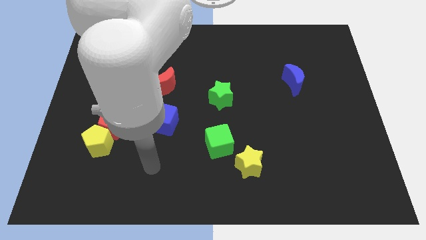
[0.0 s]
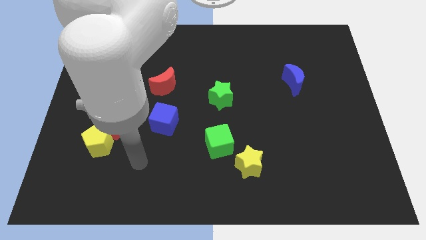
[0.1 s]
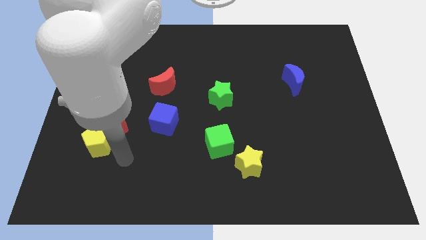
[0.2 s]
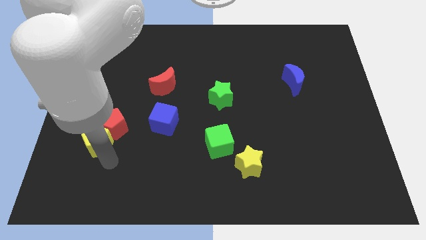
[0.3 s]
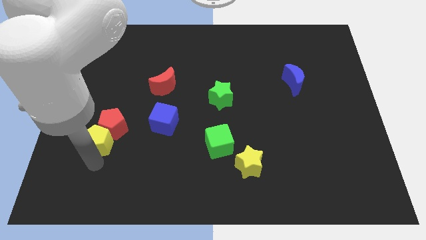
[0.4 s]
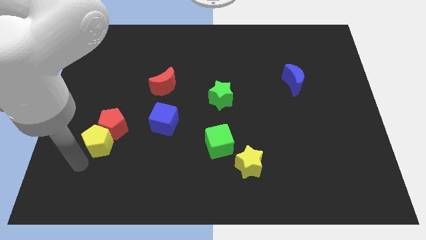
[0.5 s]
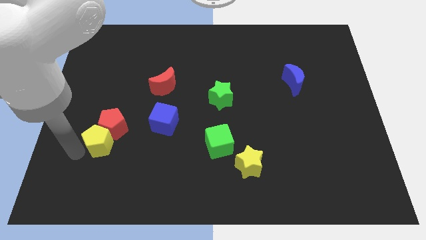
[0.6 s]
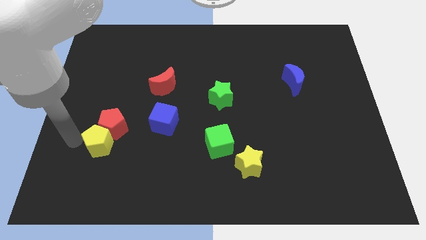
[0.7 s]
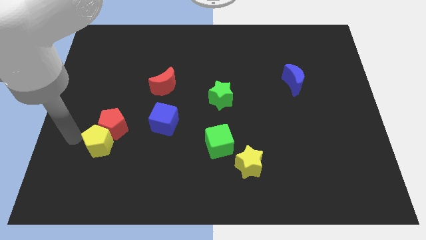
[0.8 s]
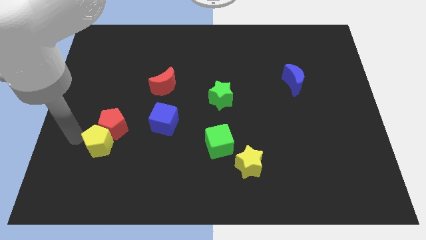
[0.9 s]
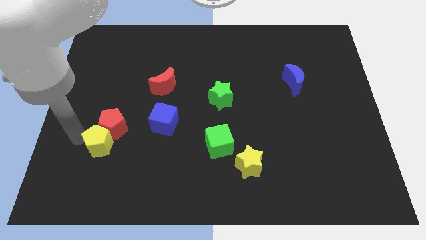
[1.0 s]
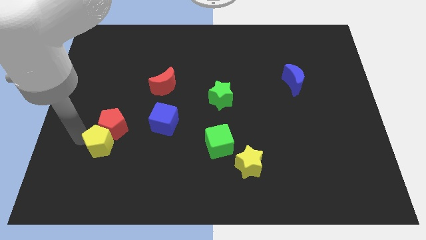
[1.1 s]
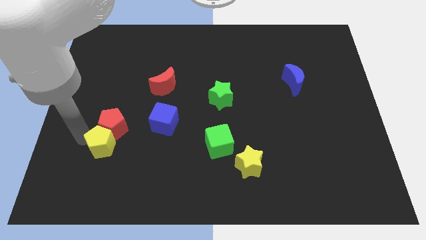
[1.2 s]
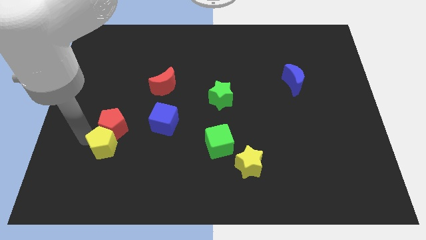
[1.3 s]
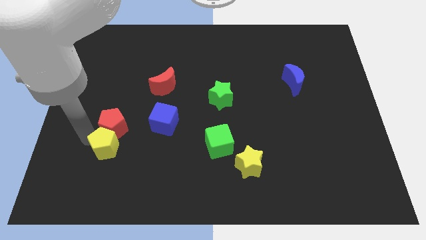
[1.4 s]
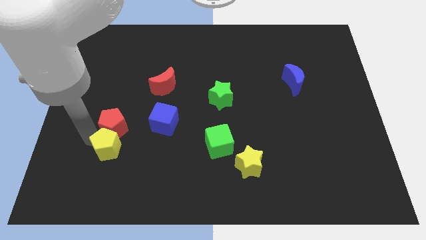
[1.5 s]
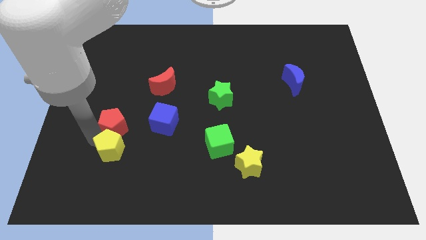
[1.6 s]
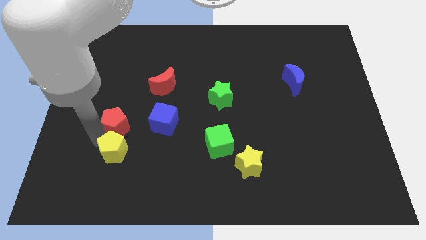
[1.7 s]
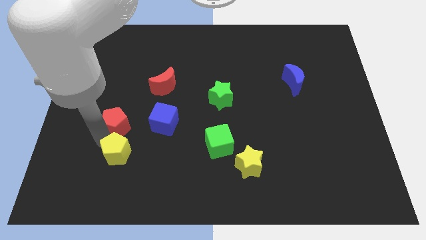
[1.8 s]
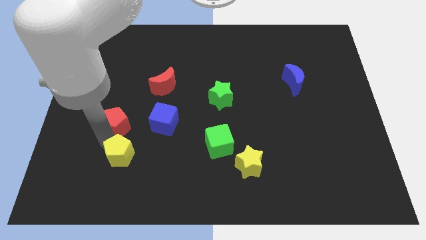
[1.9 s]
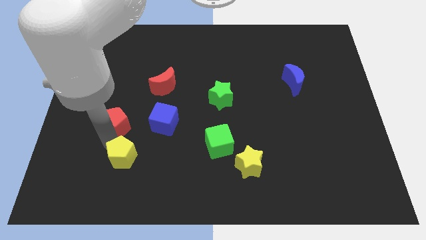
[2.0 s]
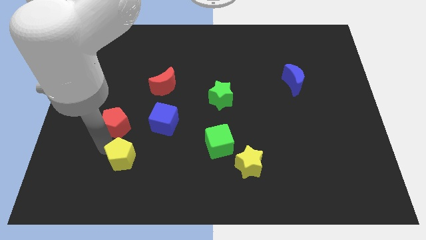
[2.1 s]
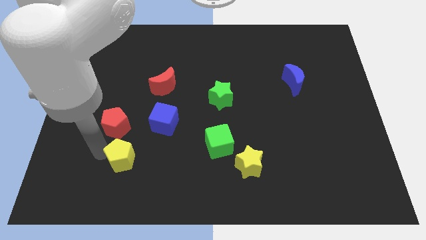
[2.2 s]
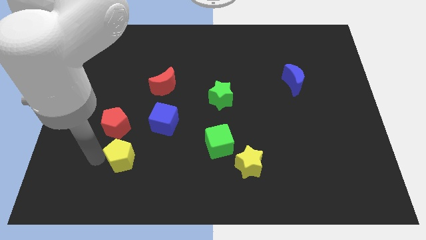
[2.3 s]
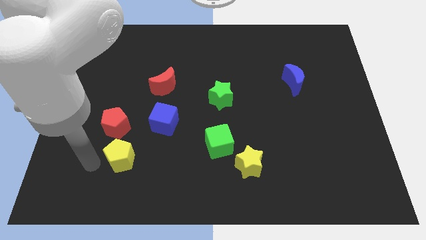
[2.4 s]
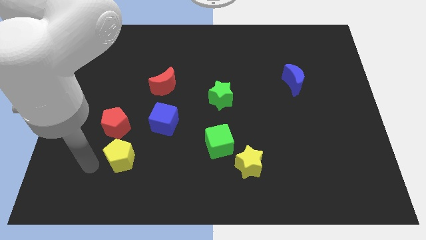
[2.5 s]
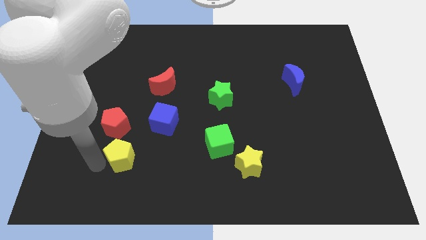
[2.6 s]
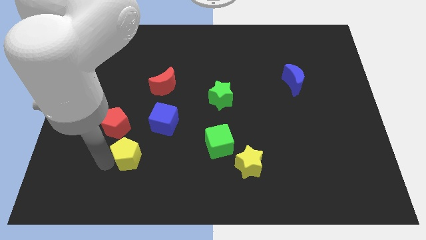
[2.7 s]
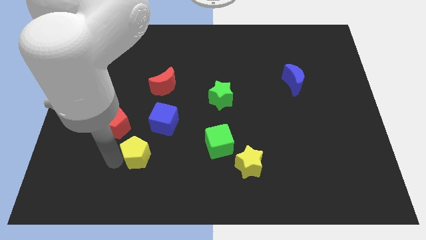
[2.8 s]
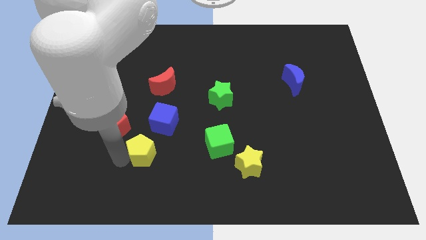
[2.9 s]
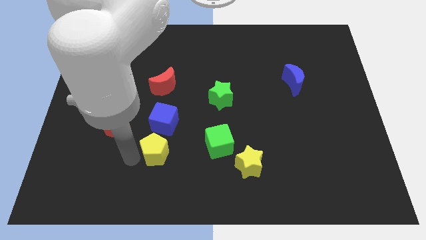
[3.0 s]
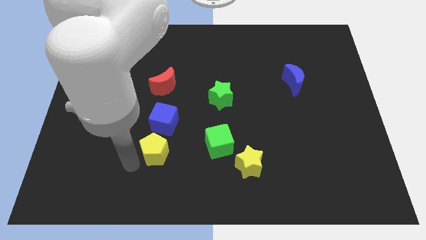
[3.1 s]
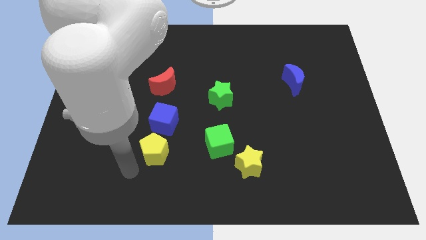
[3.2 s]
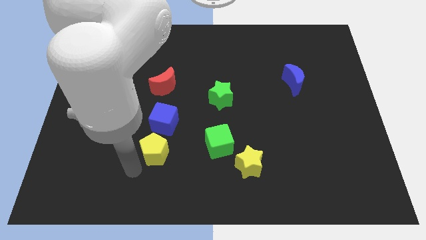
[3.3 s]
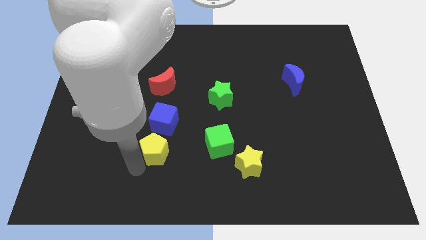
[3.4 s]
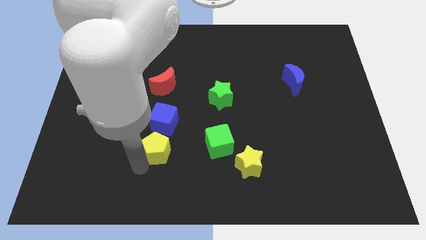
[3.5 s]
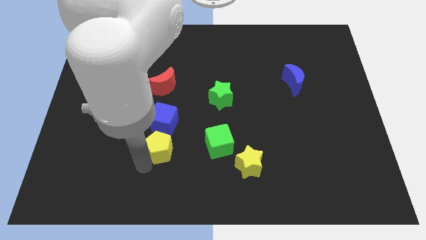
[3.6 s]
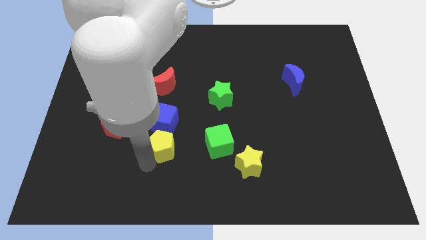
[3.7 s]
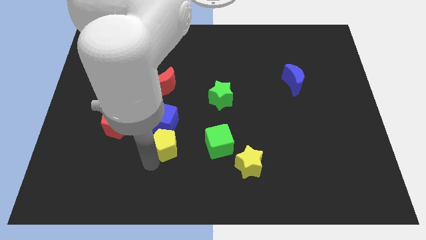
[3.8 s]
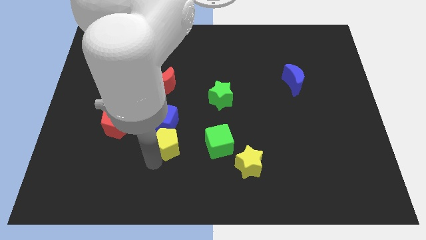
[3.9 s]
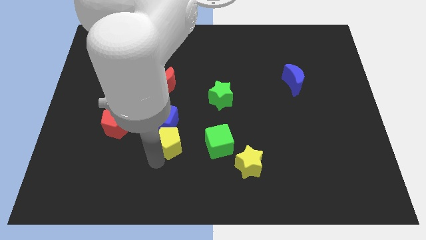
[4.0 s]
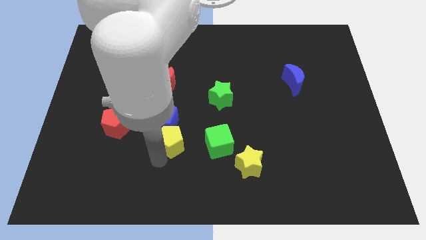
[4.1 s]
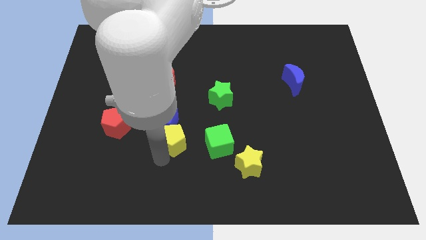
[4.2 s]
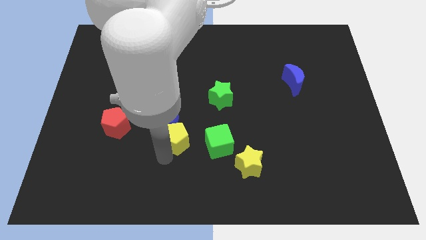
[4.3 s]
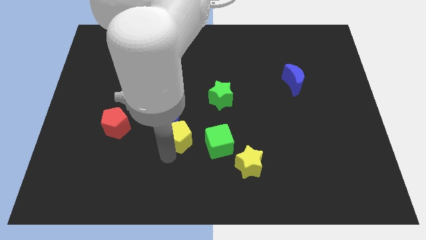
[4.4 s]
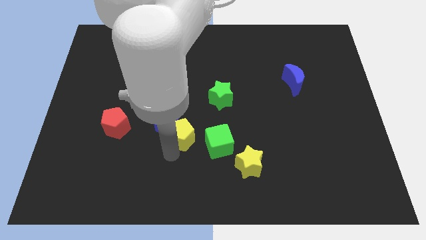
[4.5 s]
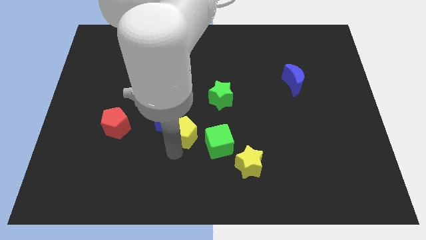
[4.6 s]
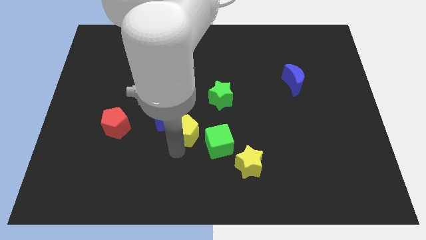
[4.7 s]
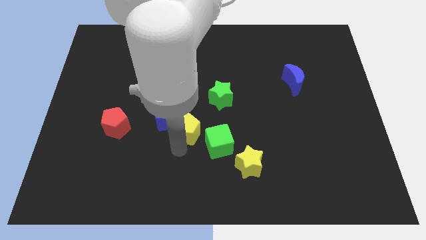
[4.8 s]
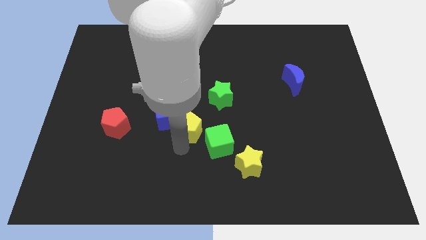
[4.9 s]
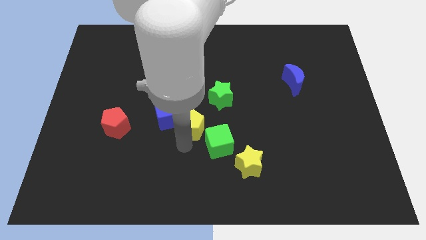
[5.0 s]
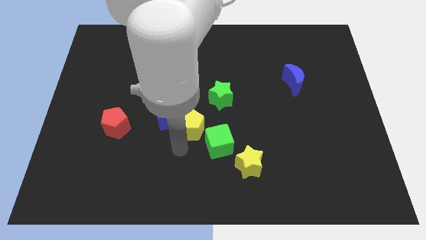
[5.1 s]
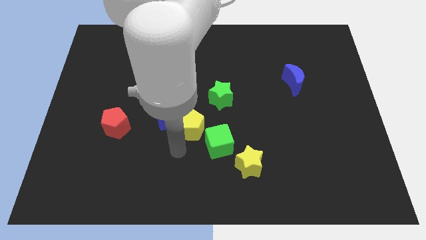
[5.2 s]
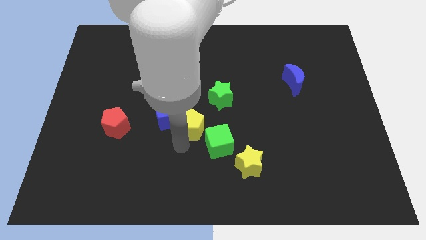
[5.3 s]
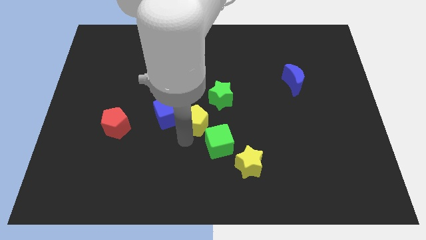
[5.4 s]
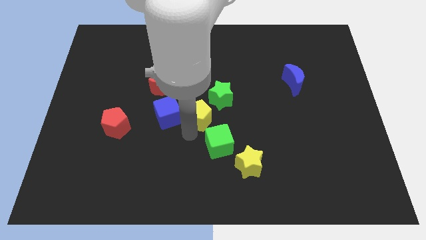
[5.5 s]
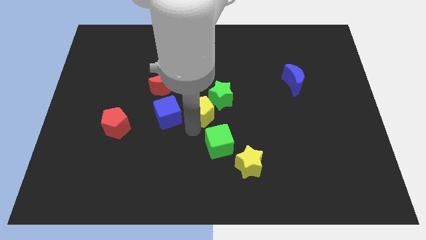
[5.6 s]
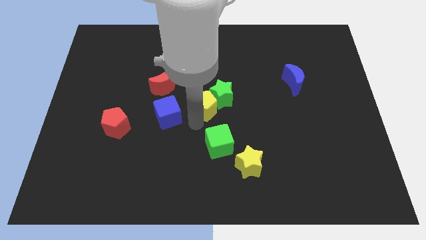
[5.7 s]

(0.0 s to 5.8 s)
put the yellow pentagon close to the green star

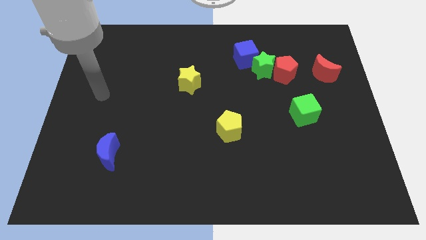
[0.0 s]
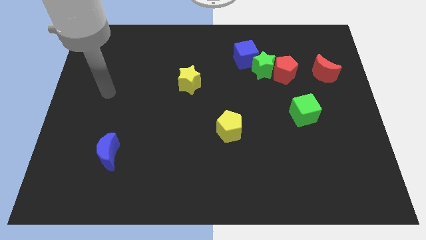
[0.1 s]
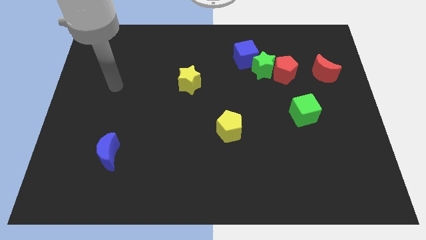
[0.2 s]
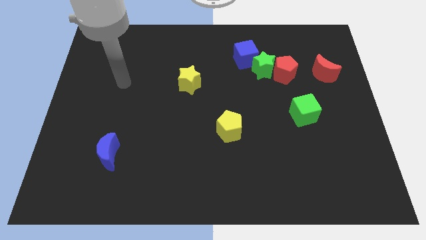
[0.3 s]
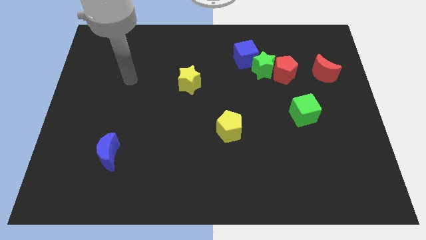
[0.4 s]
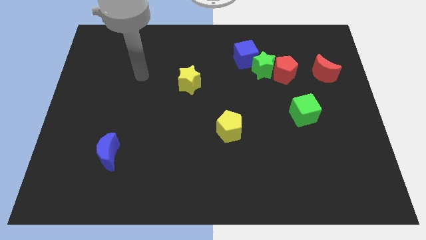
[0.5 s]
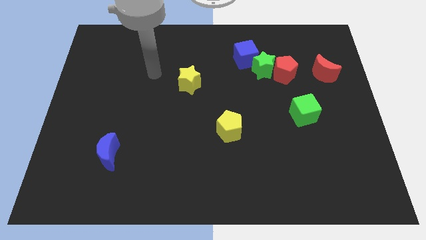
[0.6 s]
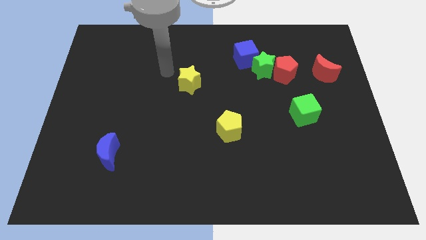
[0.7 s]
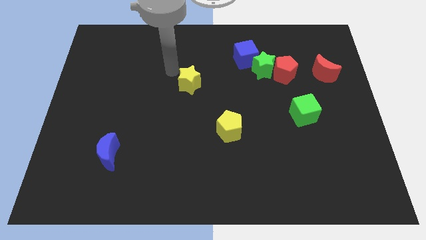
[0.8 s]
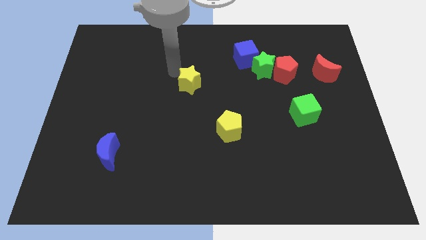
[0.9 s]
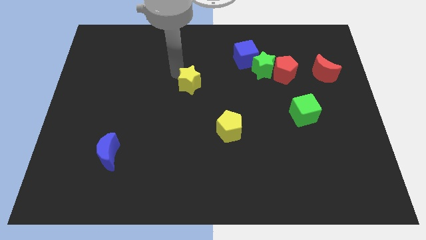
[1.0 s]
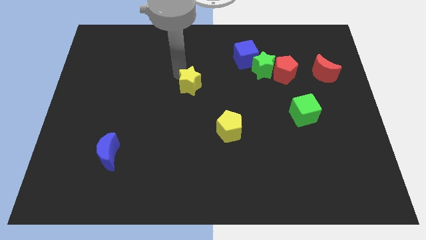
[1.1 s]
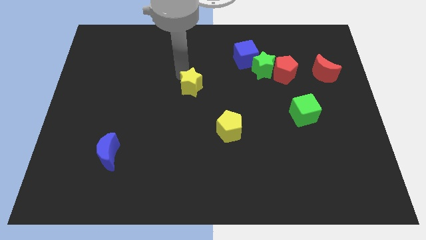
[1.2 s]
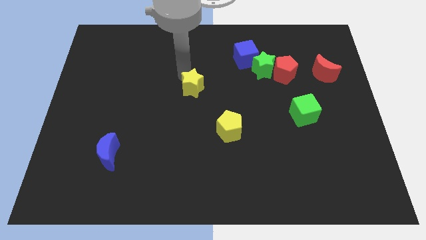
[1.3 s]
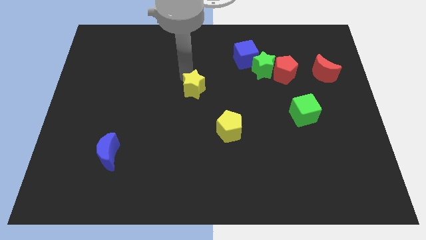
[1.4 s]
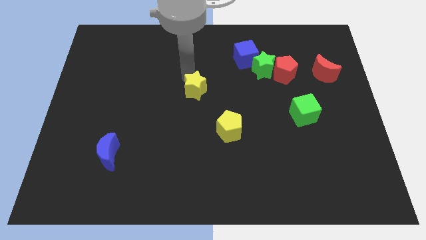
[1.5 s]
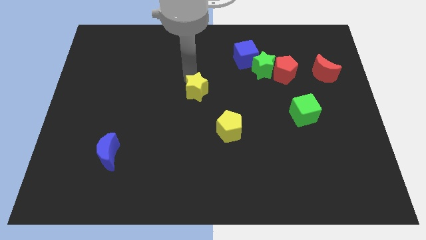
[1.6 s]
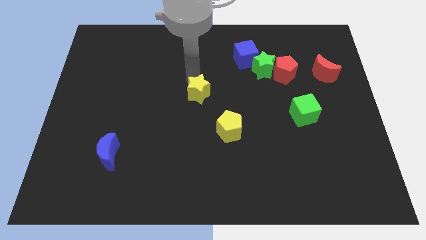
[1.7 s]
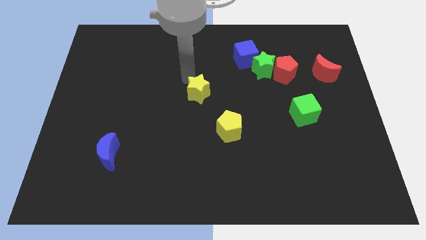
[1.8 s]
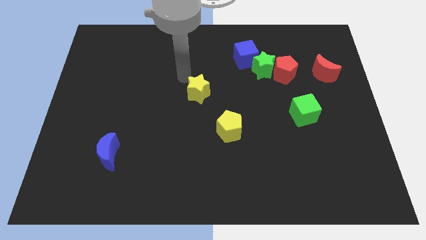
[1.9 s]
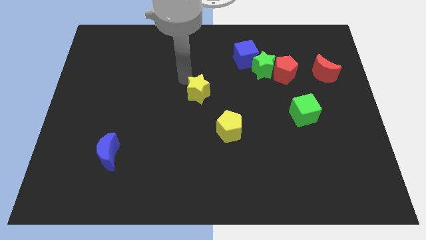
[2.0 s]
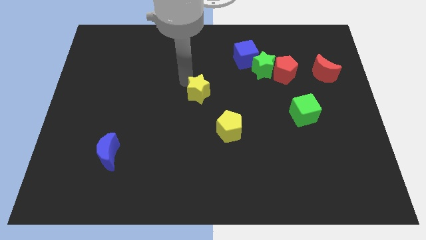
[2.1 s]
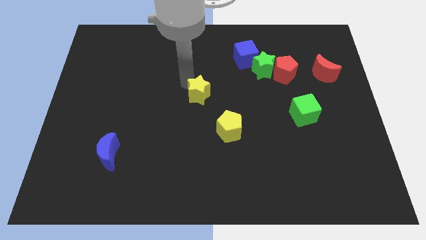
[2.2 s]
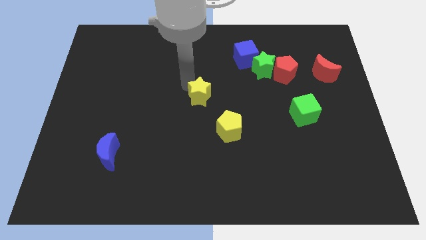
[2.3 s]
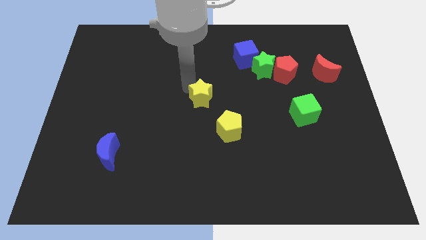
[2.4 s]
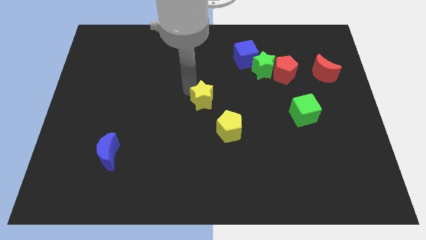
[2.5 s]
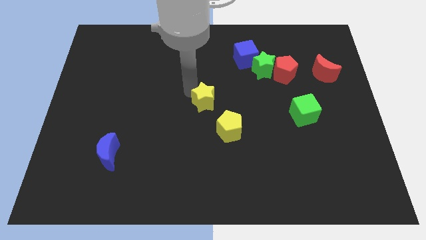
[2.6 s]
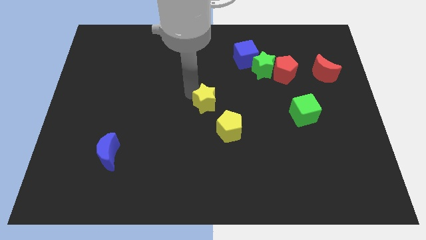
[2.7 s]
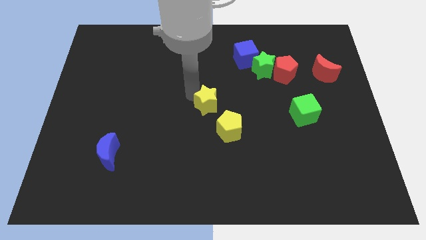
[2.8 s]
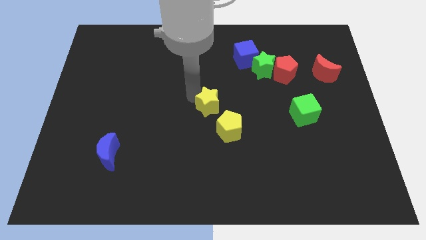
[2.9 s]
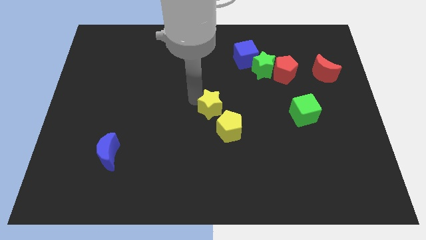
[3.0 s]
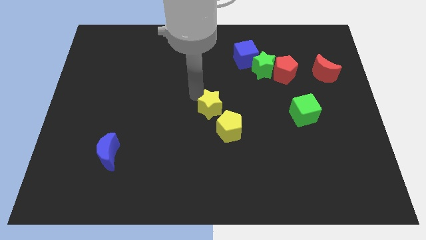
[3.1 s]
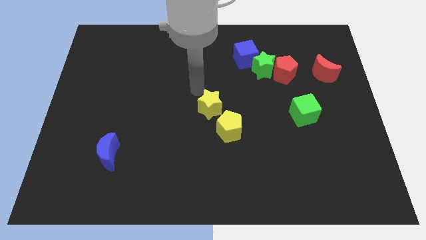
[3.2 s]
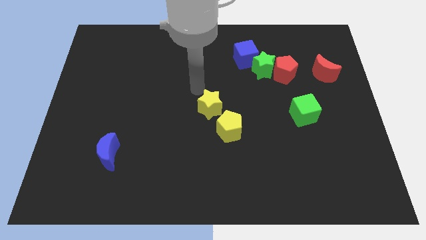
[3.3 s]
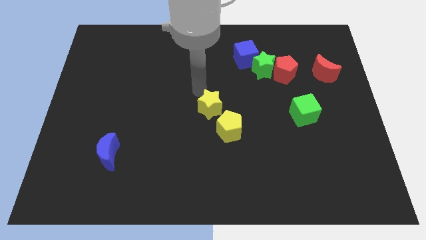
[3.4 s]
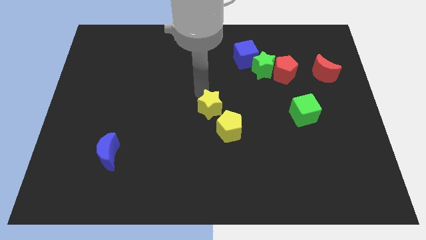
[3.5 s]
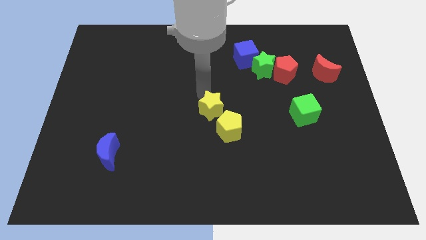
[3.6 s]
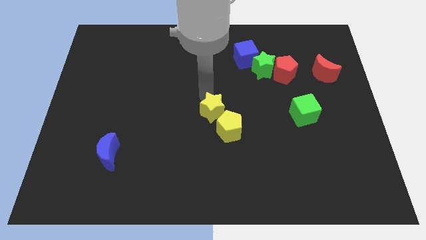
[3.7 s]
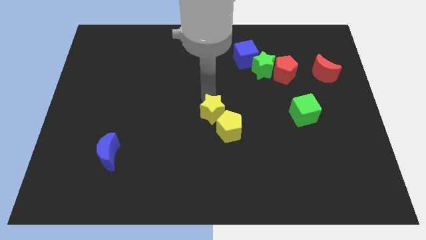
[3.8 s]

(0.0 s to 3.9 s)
put the yellow star next to the yellow pentagon
